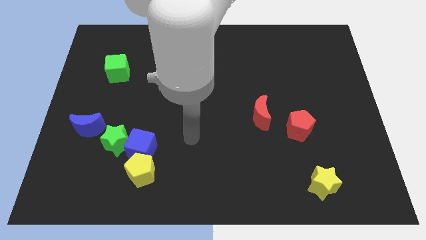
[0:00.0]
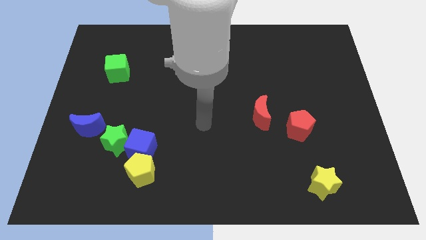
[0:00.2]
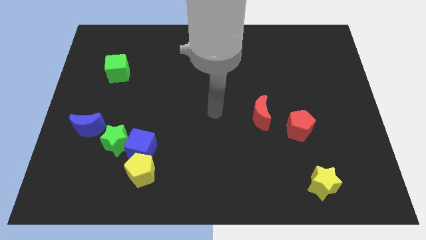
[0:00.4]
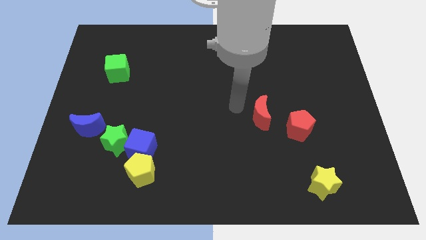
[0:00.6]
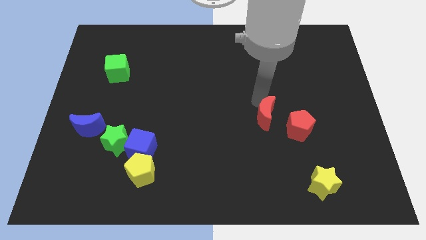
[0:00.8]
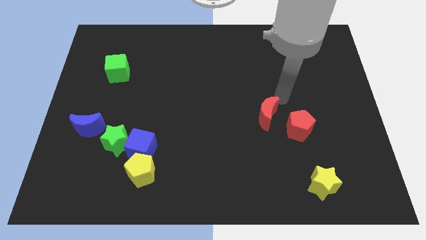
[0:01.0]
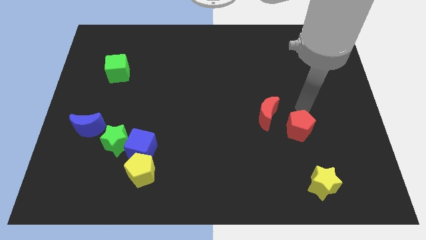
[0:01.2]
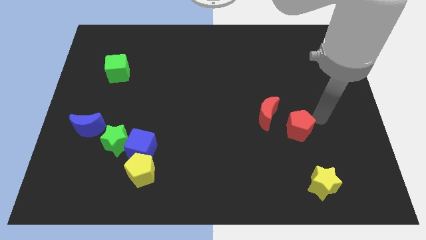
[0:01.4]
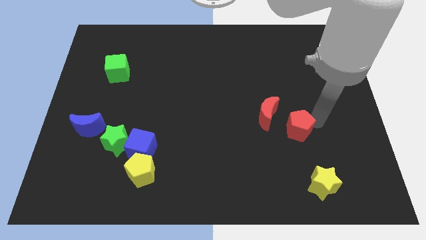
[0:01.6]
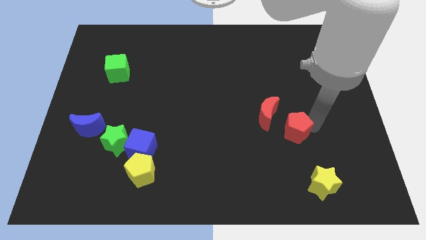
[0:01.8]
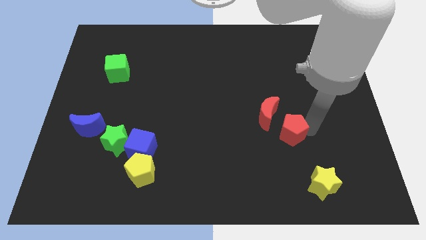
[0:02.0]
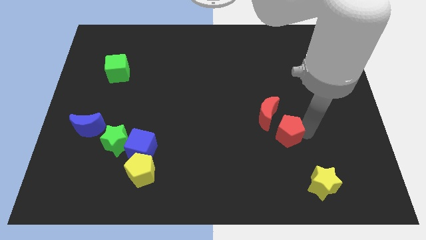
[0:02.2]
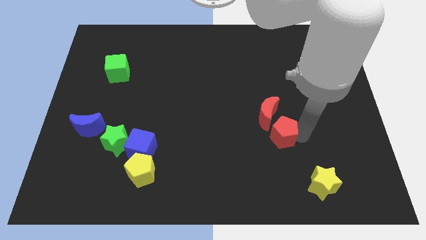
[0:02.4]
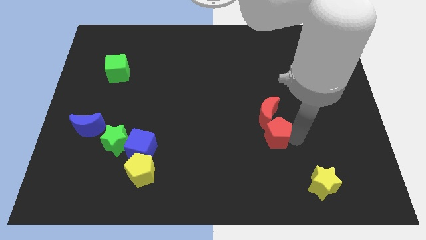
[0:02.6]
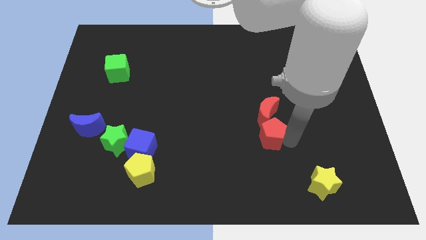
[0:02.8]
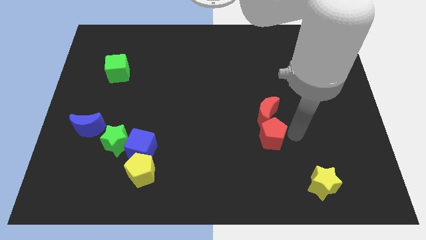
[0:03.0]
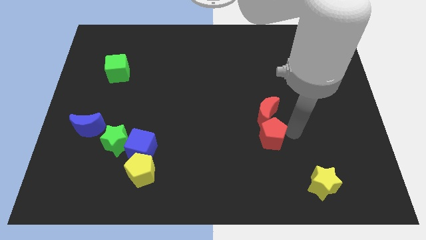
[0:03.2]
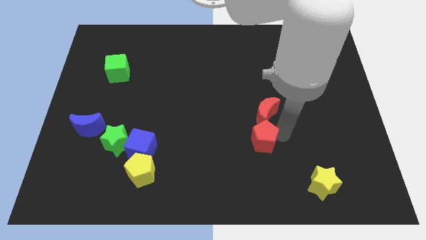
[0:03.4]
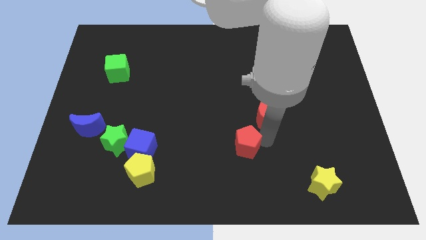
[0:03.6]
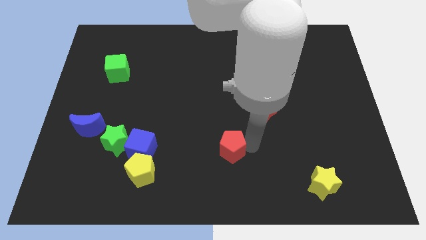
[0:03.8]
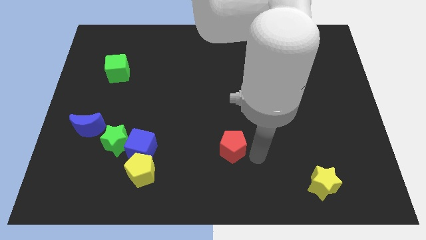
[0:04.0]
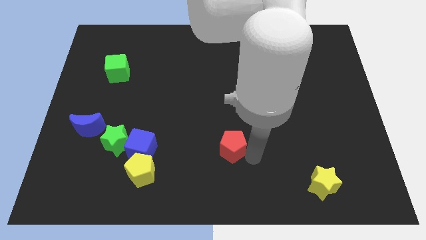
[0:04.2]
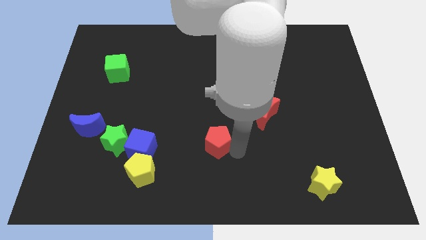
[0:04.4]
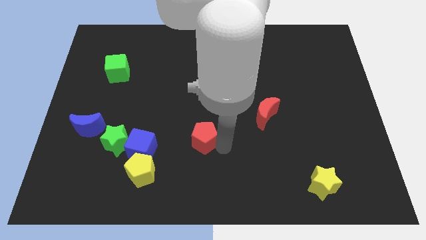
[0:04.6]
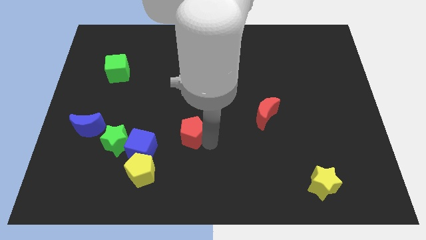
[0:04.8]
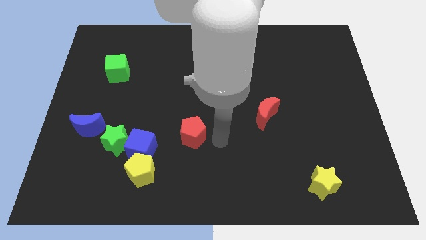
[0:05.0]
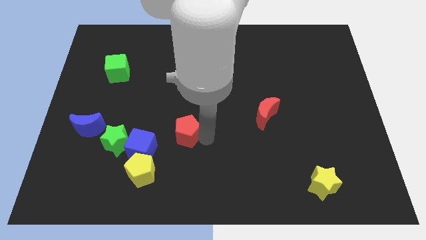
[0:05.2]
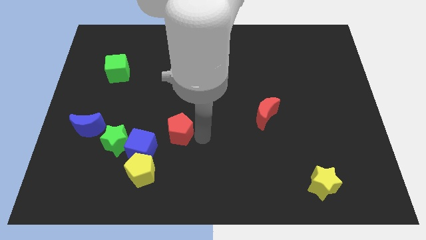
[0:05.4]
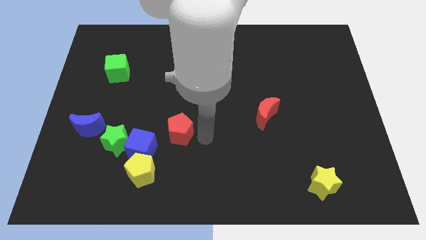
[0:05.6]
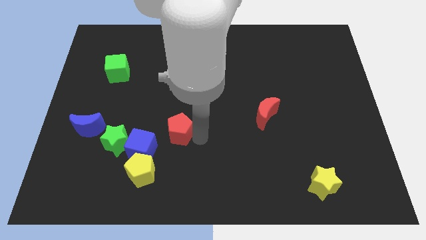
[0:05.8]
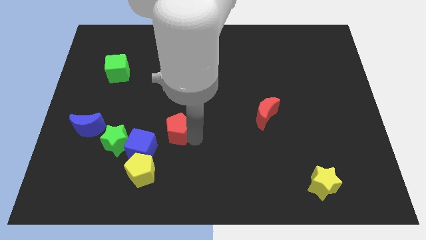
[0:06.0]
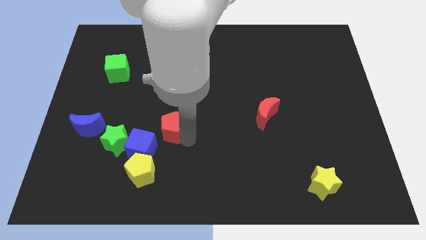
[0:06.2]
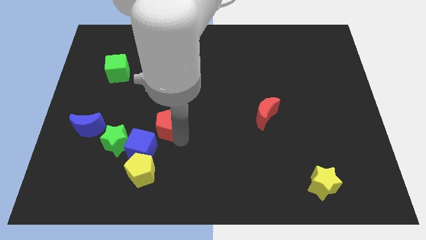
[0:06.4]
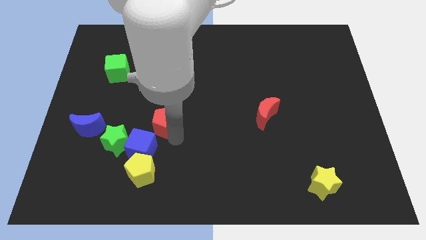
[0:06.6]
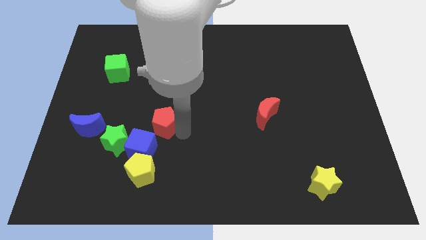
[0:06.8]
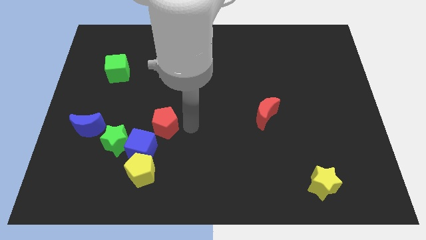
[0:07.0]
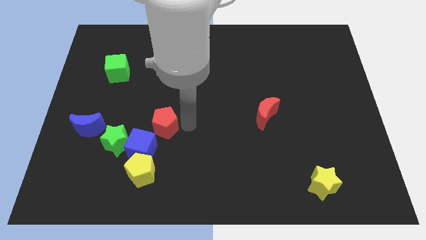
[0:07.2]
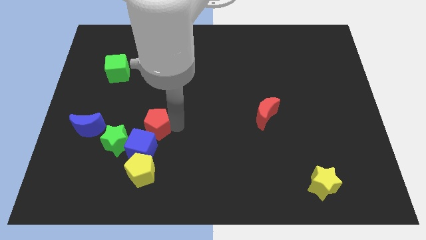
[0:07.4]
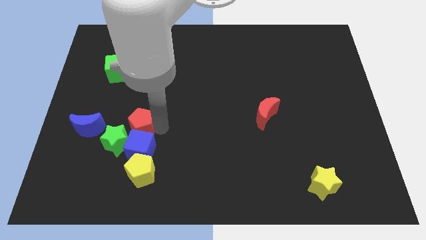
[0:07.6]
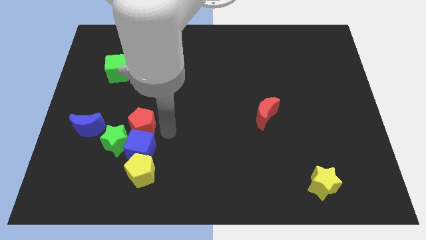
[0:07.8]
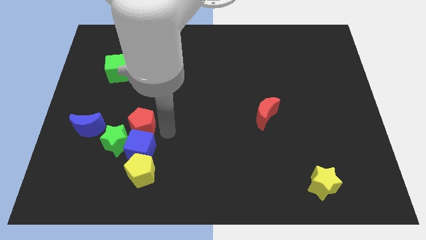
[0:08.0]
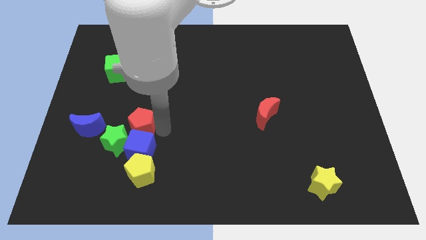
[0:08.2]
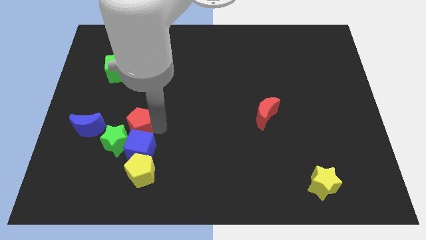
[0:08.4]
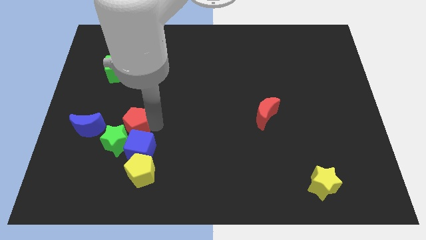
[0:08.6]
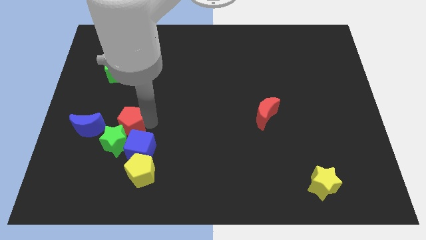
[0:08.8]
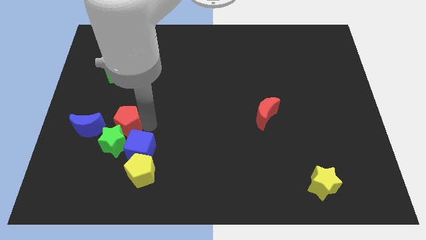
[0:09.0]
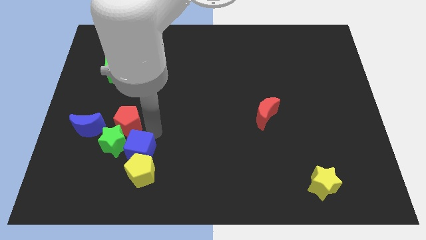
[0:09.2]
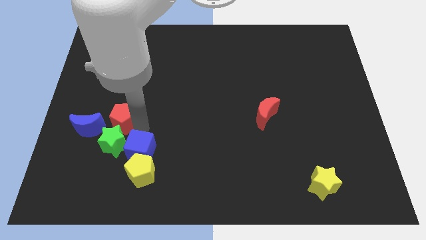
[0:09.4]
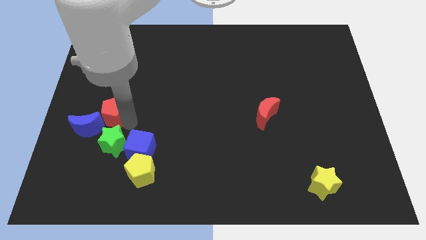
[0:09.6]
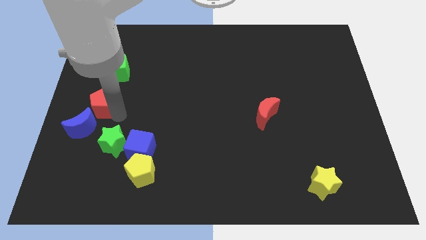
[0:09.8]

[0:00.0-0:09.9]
push the red pentagon to the center left

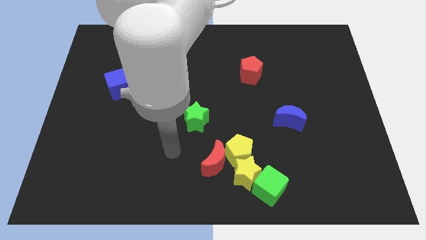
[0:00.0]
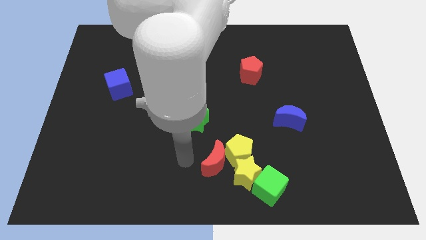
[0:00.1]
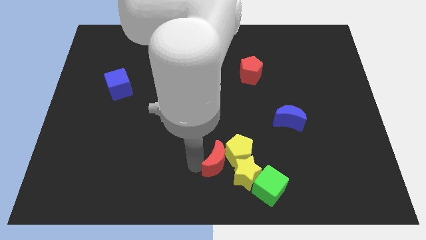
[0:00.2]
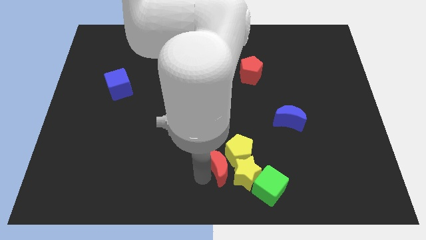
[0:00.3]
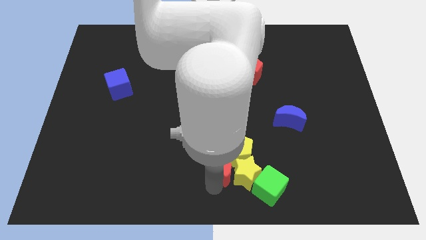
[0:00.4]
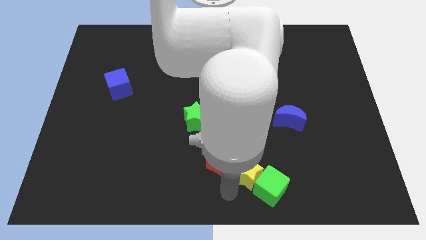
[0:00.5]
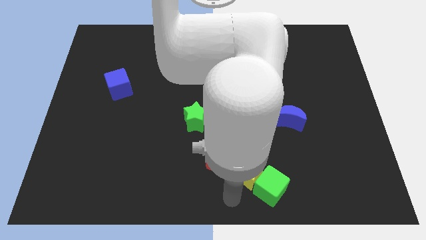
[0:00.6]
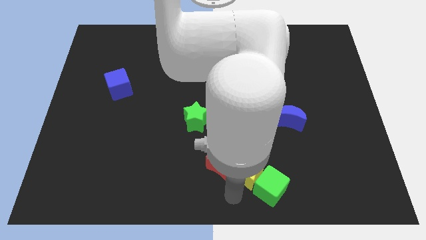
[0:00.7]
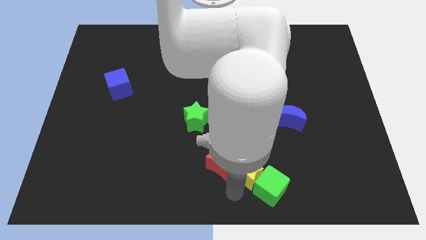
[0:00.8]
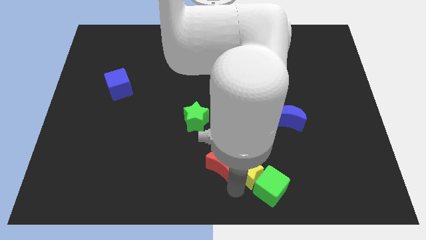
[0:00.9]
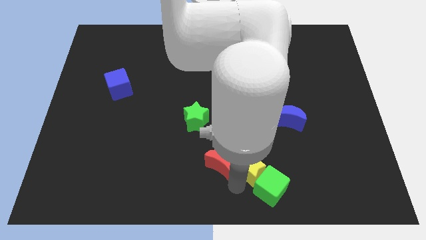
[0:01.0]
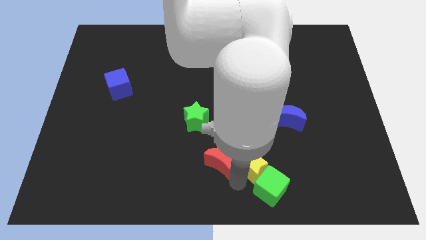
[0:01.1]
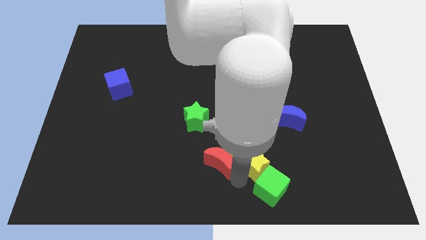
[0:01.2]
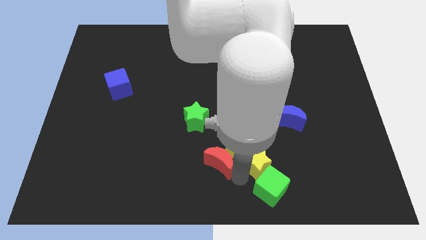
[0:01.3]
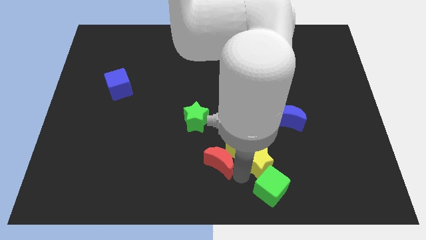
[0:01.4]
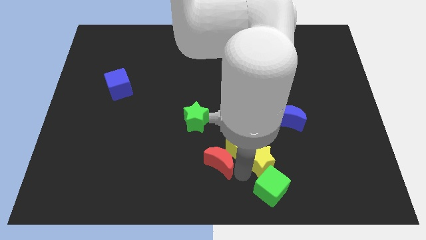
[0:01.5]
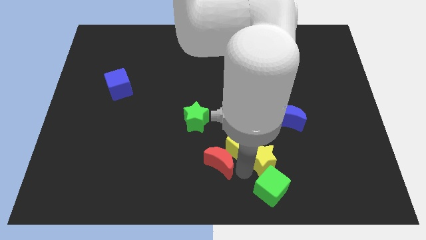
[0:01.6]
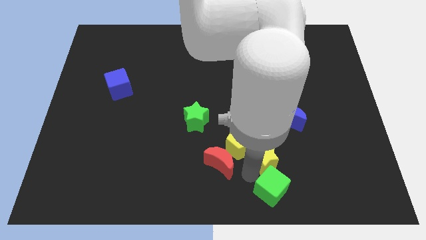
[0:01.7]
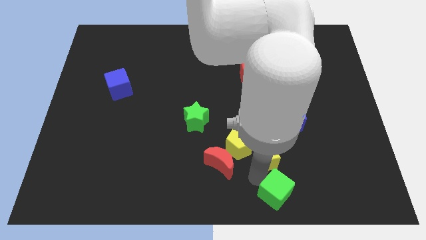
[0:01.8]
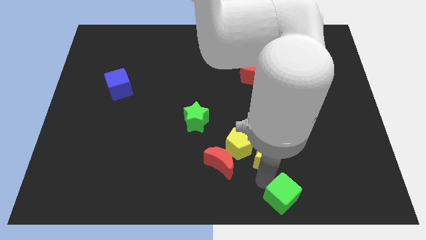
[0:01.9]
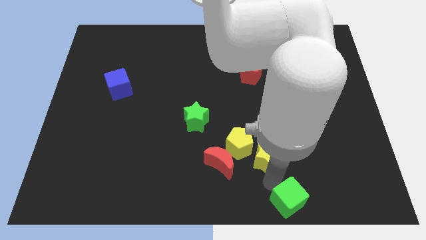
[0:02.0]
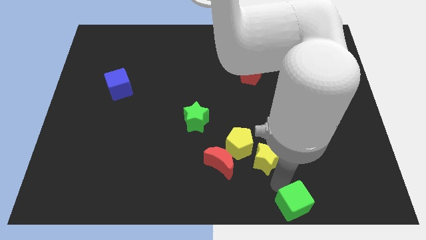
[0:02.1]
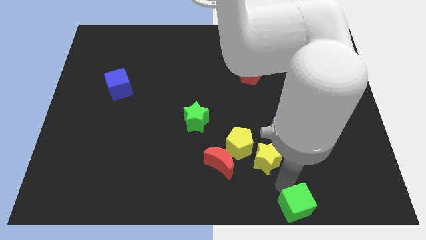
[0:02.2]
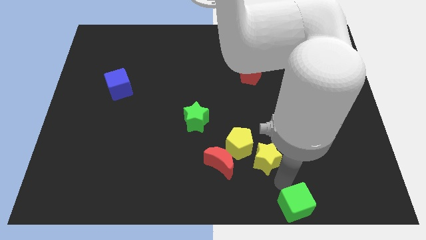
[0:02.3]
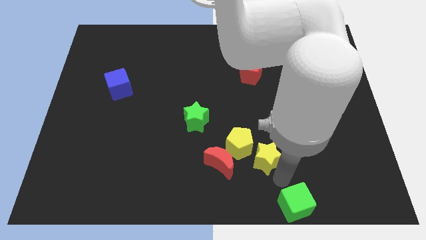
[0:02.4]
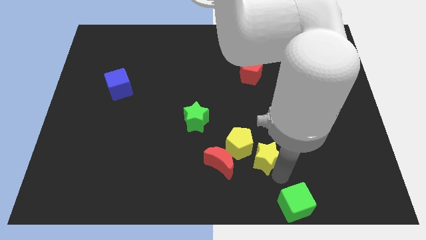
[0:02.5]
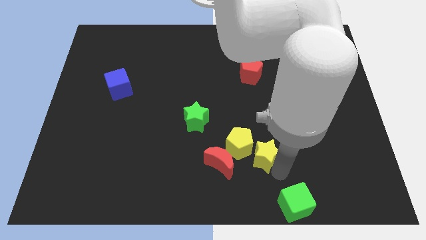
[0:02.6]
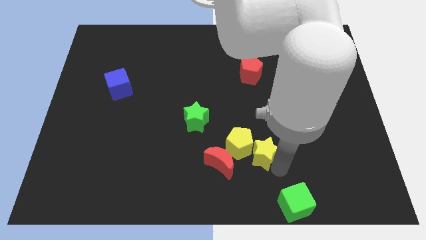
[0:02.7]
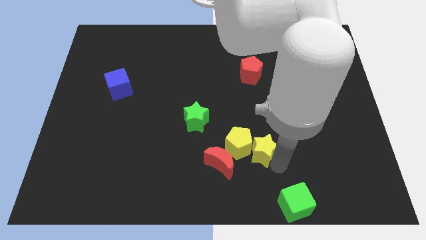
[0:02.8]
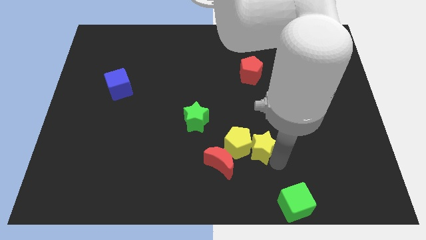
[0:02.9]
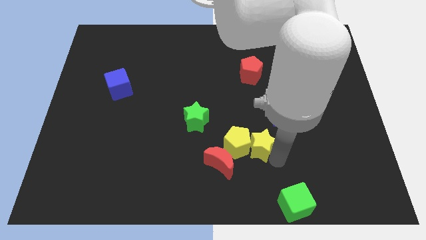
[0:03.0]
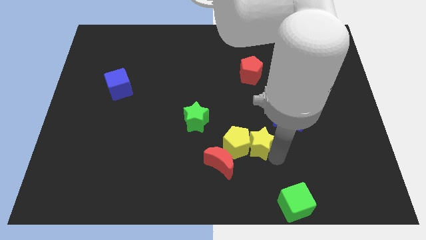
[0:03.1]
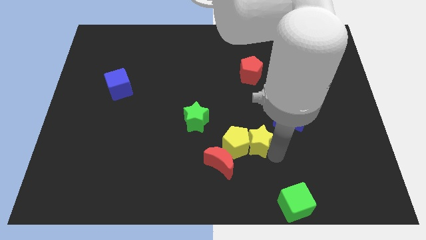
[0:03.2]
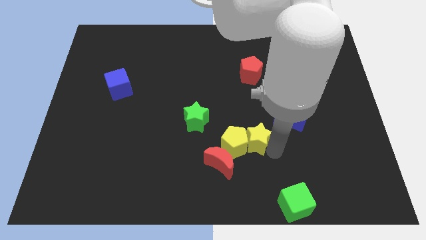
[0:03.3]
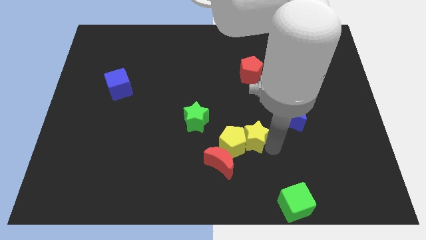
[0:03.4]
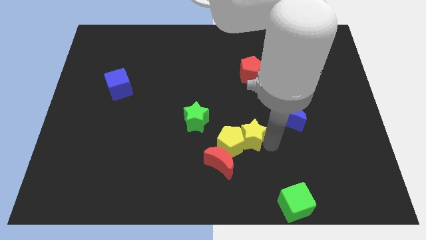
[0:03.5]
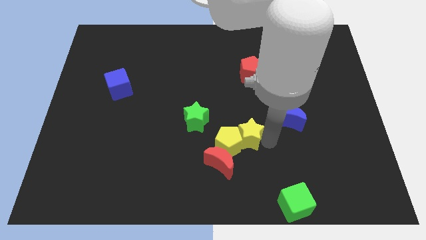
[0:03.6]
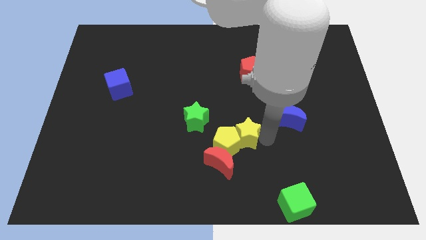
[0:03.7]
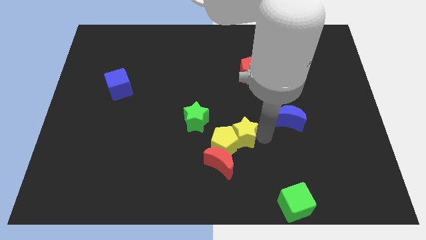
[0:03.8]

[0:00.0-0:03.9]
move the yellow star to the middle
